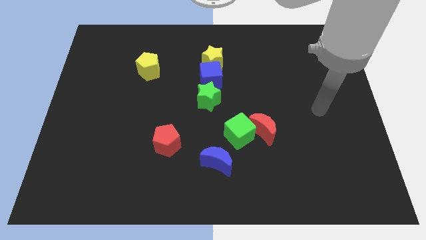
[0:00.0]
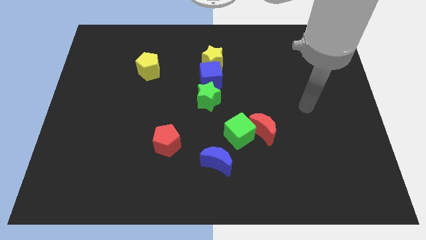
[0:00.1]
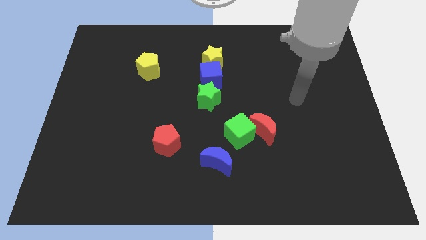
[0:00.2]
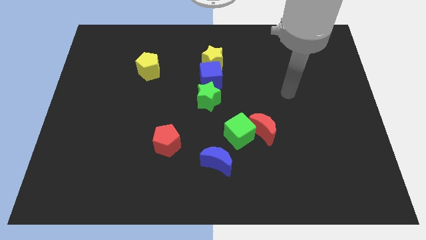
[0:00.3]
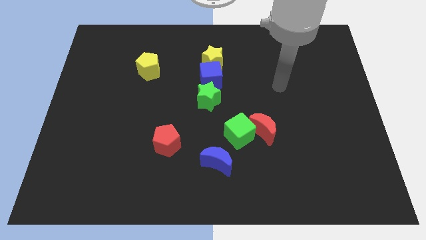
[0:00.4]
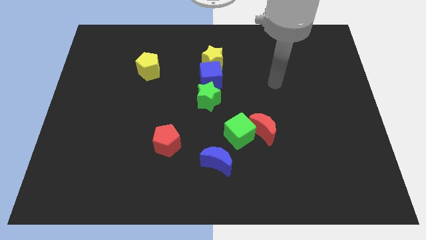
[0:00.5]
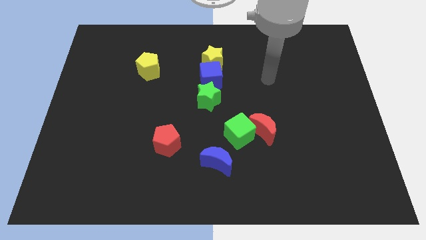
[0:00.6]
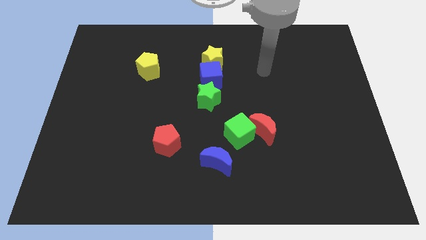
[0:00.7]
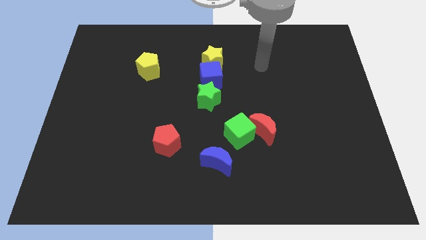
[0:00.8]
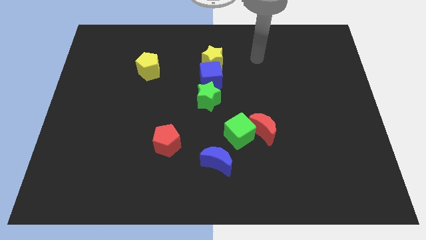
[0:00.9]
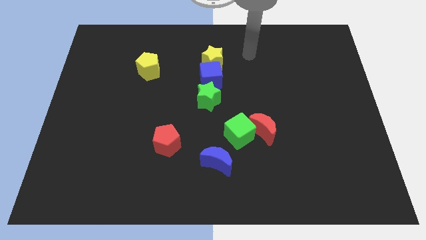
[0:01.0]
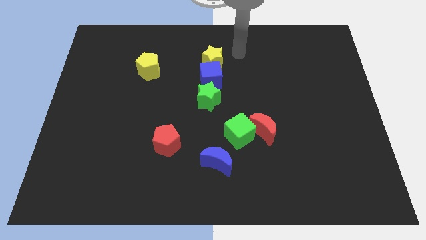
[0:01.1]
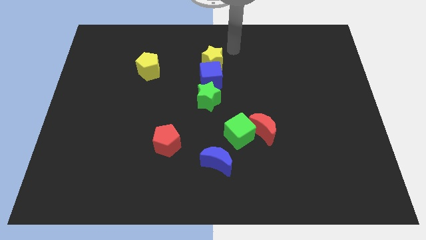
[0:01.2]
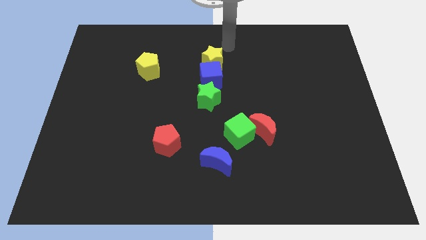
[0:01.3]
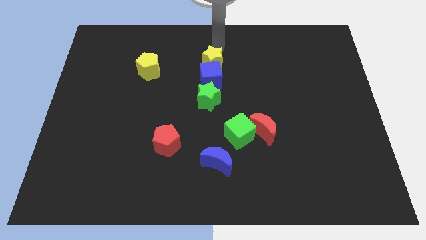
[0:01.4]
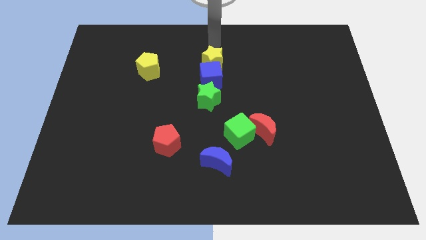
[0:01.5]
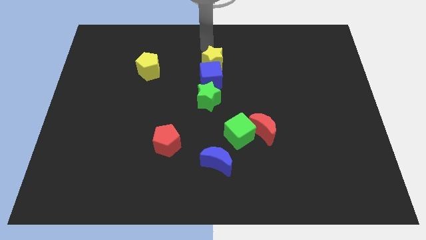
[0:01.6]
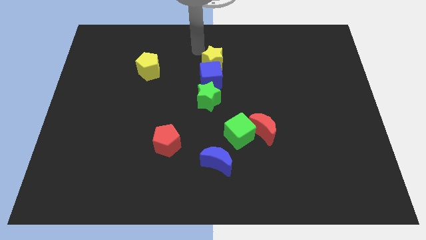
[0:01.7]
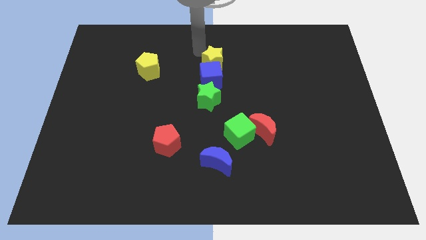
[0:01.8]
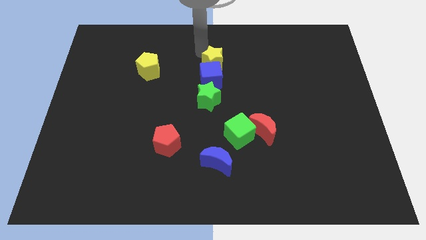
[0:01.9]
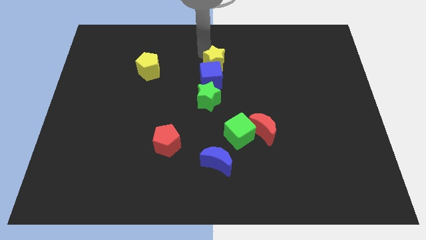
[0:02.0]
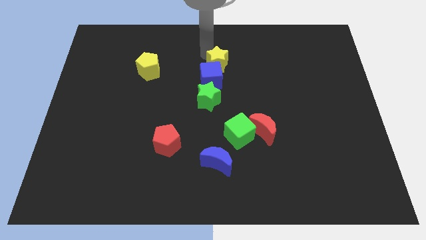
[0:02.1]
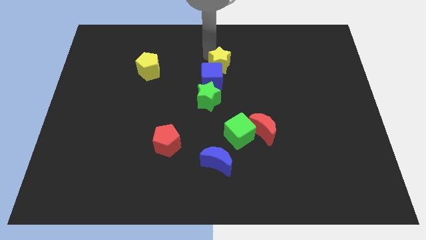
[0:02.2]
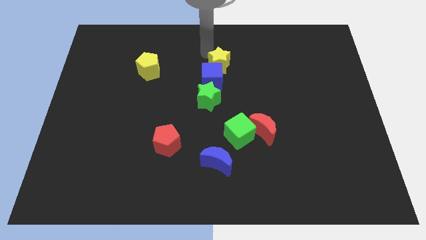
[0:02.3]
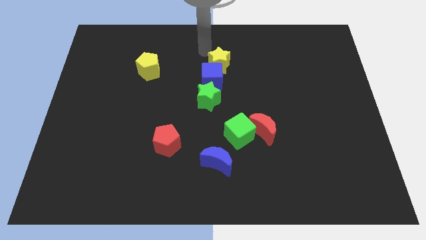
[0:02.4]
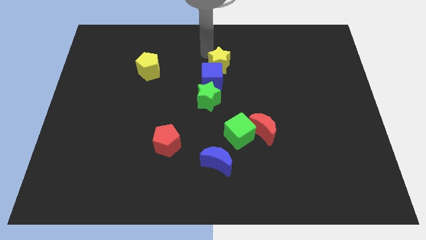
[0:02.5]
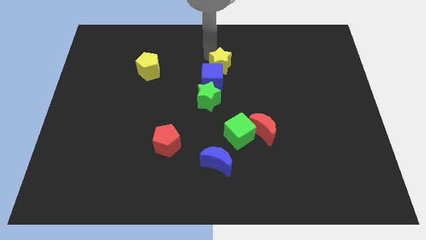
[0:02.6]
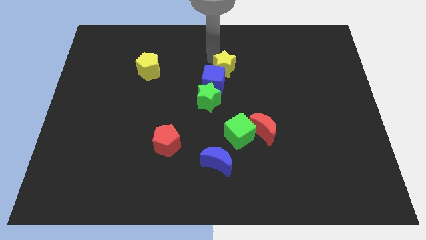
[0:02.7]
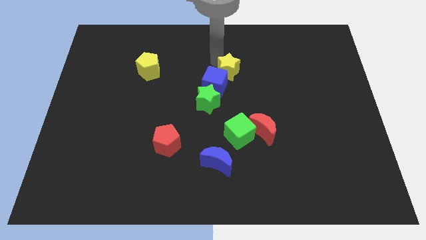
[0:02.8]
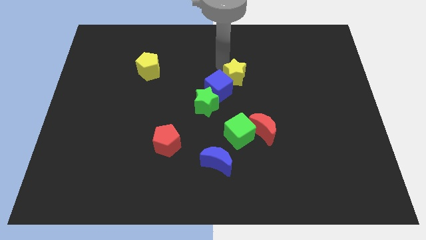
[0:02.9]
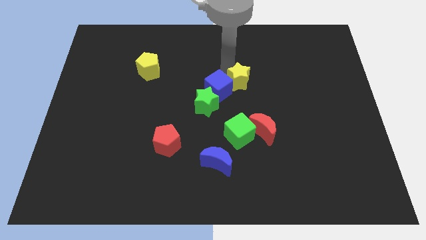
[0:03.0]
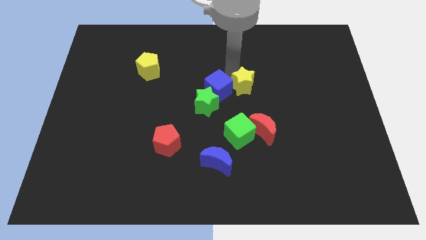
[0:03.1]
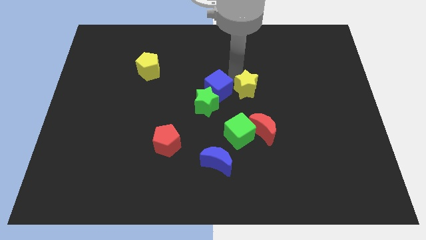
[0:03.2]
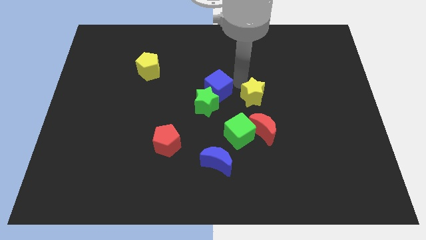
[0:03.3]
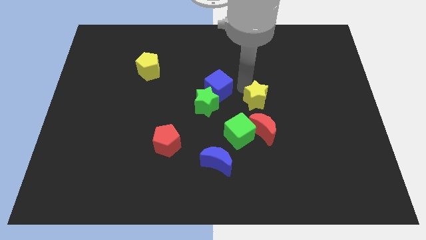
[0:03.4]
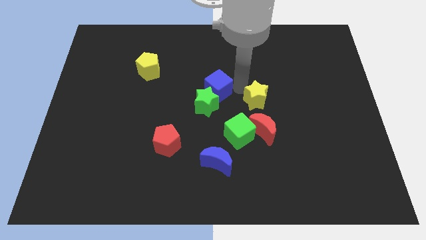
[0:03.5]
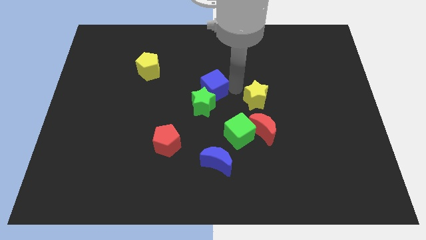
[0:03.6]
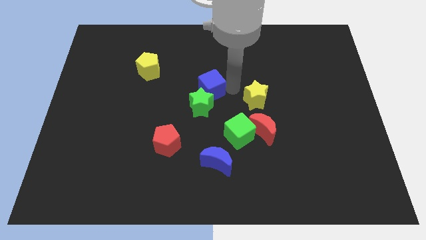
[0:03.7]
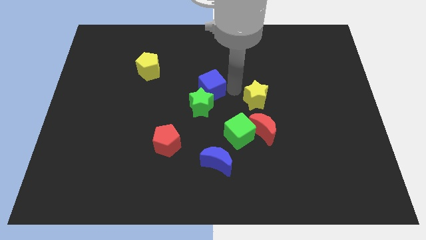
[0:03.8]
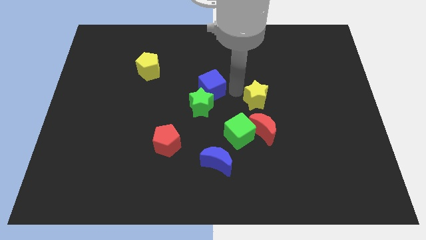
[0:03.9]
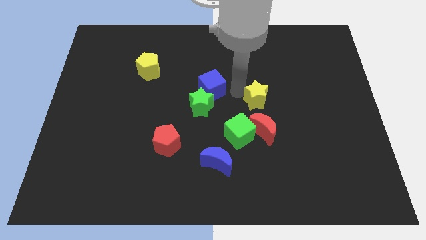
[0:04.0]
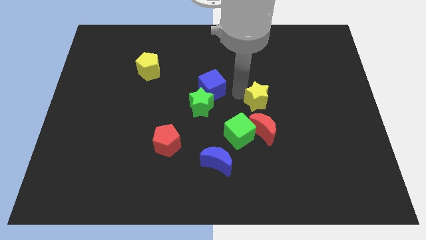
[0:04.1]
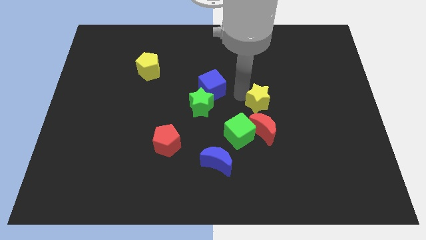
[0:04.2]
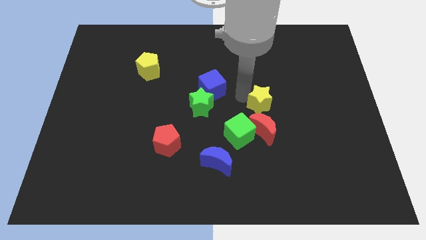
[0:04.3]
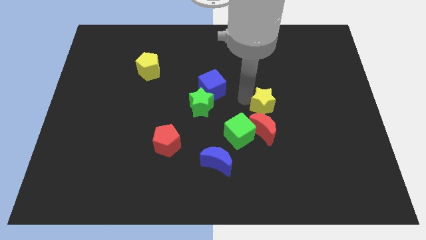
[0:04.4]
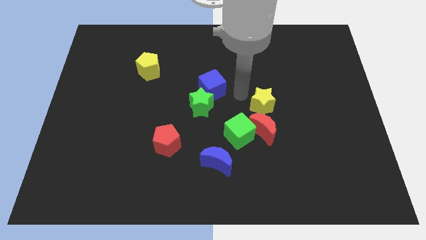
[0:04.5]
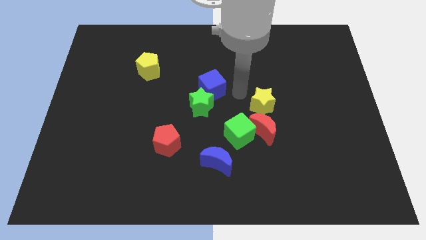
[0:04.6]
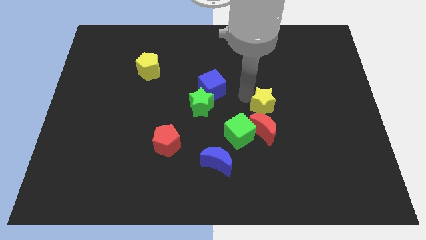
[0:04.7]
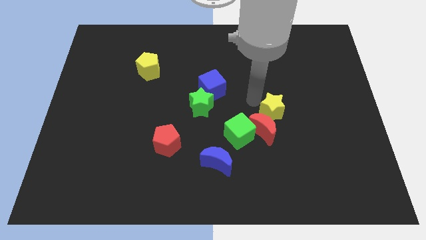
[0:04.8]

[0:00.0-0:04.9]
slide the yellow star downwards and right

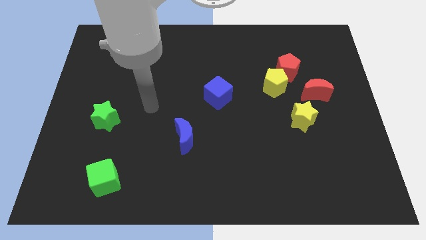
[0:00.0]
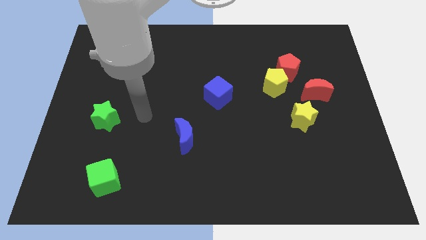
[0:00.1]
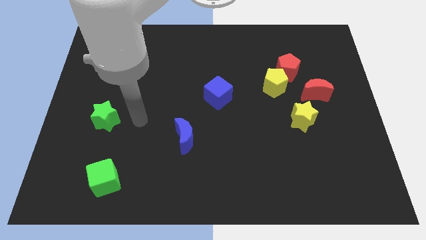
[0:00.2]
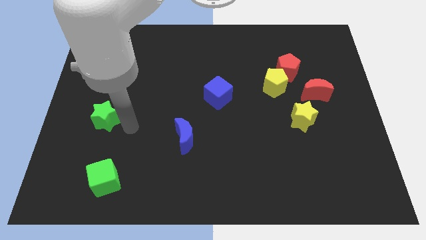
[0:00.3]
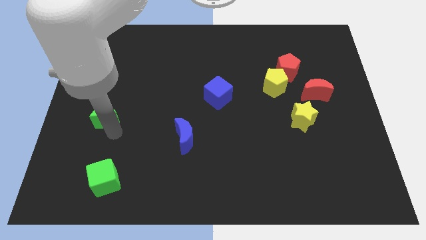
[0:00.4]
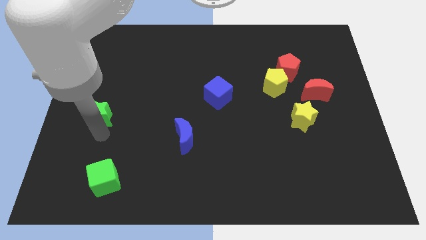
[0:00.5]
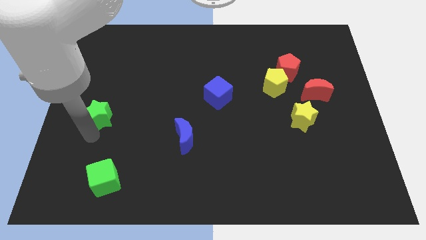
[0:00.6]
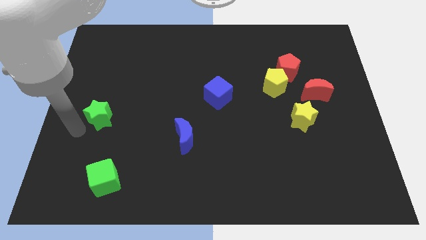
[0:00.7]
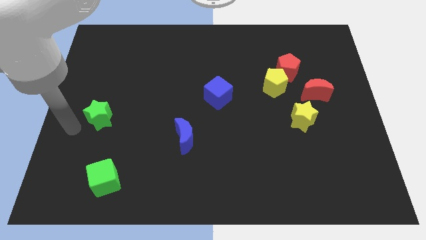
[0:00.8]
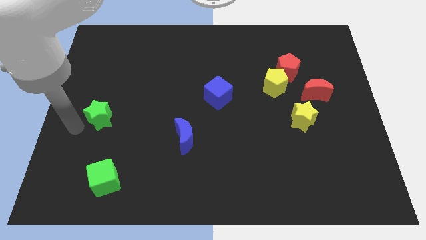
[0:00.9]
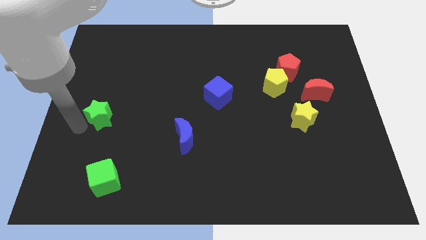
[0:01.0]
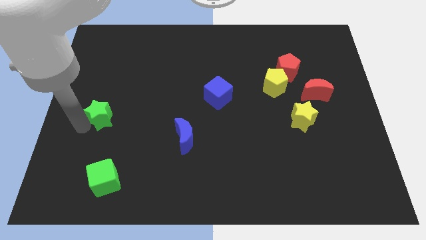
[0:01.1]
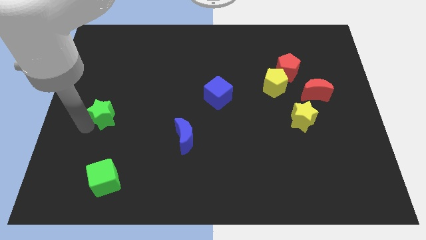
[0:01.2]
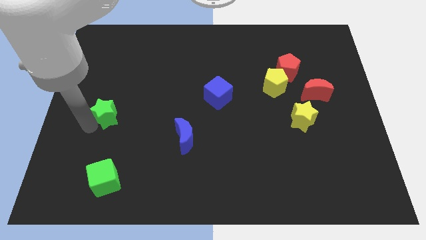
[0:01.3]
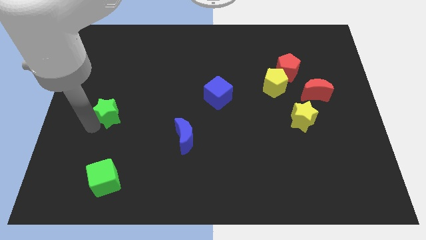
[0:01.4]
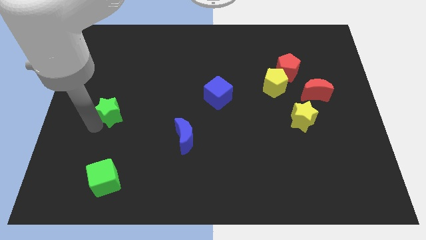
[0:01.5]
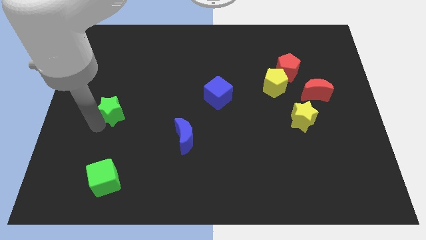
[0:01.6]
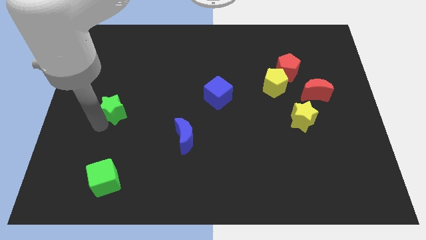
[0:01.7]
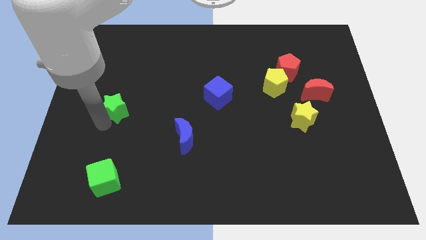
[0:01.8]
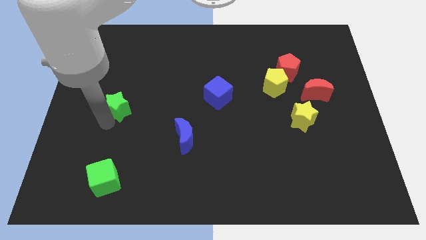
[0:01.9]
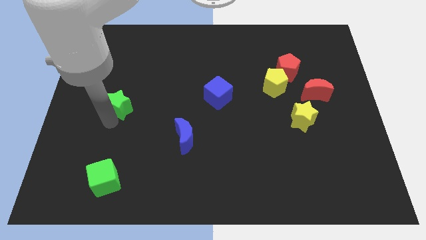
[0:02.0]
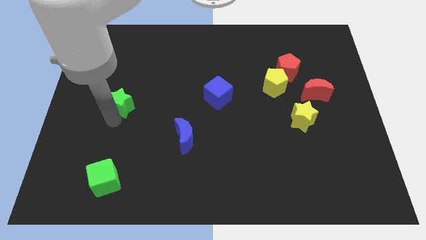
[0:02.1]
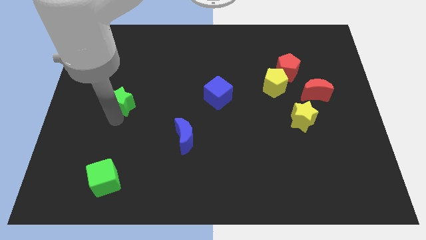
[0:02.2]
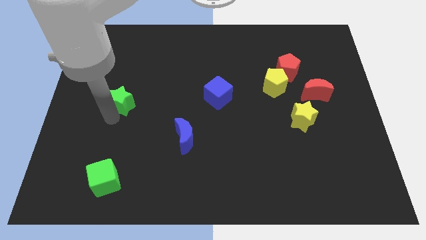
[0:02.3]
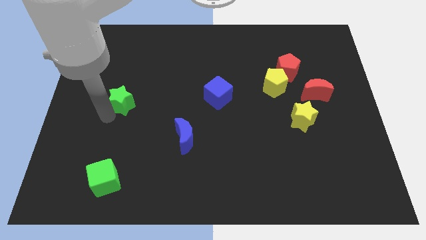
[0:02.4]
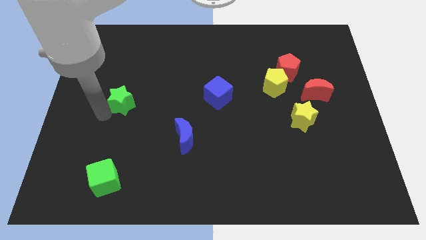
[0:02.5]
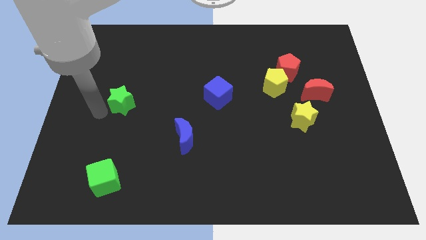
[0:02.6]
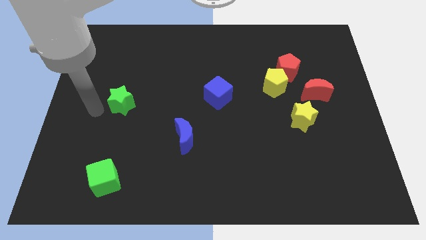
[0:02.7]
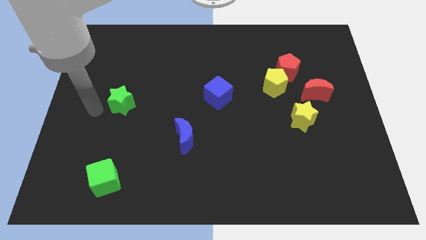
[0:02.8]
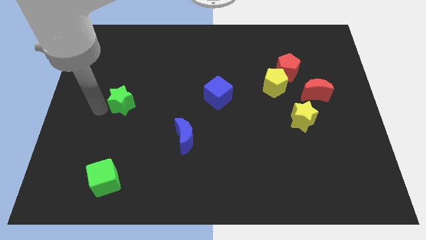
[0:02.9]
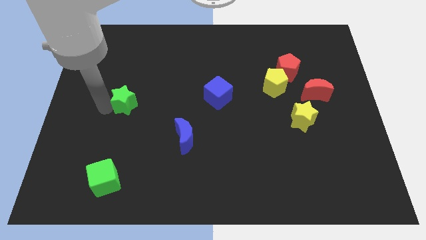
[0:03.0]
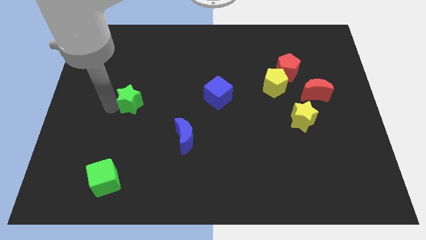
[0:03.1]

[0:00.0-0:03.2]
move the green star upwards and then to the right slightly
